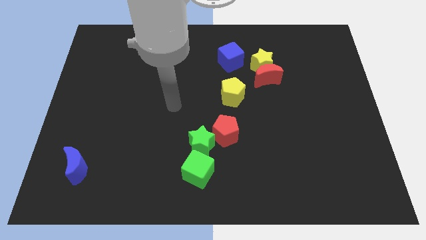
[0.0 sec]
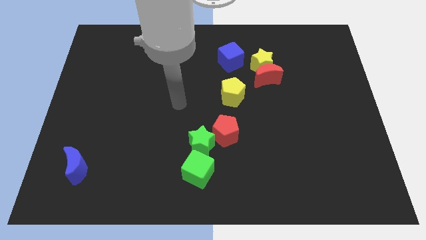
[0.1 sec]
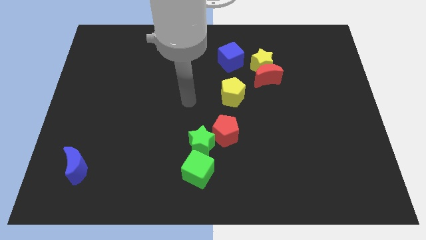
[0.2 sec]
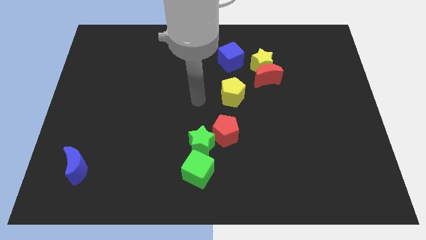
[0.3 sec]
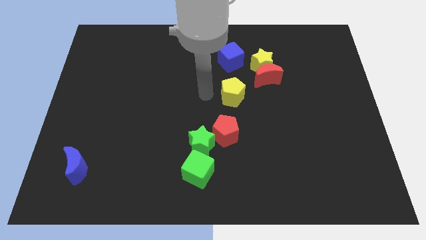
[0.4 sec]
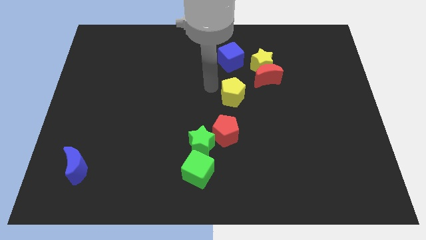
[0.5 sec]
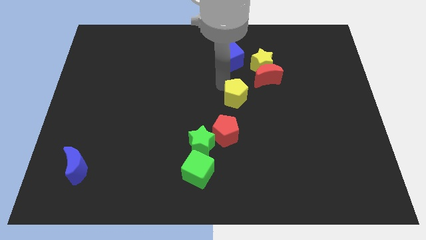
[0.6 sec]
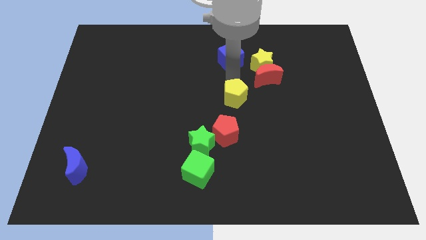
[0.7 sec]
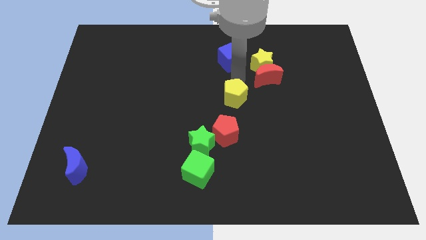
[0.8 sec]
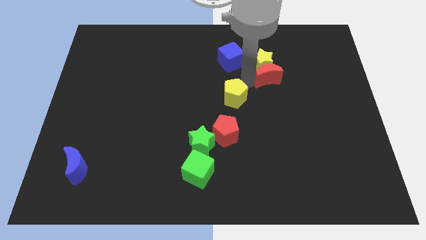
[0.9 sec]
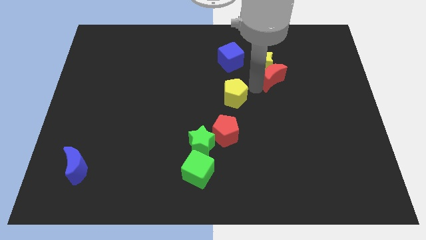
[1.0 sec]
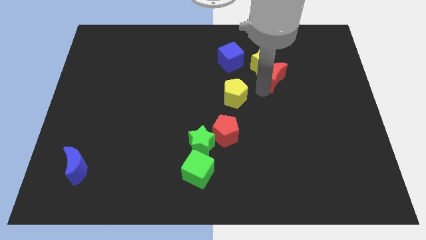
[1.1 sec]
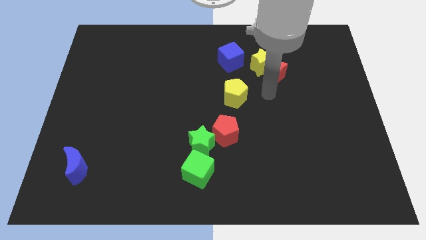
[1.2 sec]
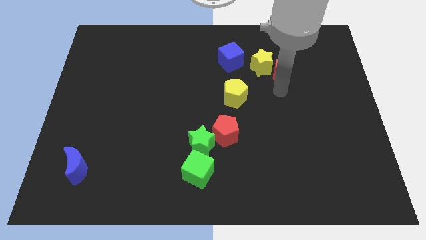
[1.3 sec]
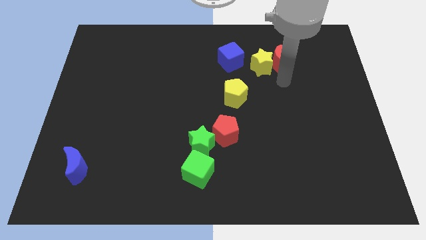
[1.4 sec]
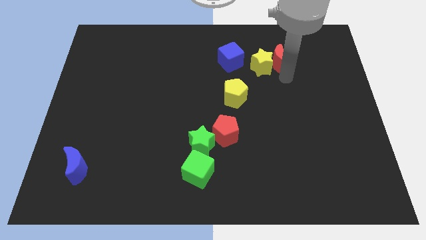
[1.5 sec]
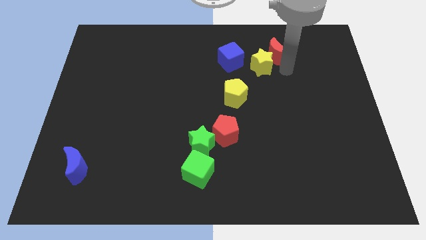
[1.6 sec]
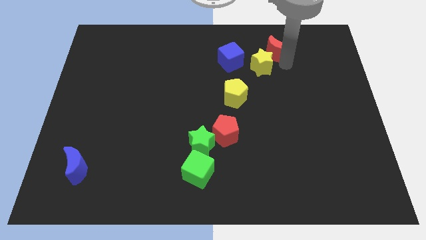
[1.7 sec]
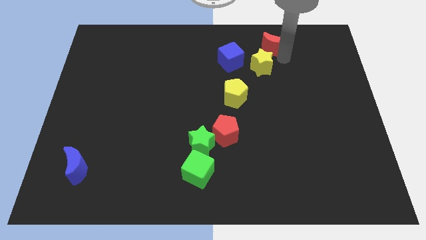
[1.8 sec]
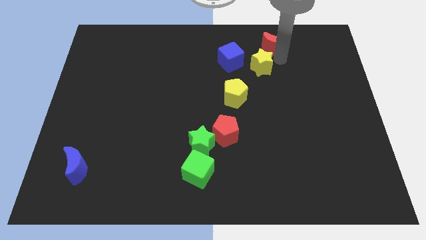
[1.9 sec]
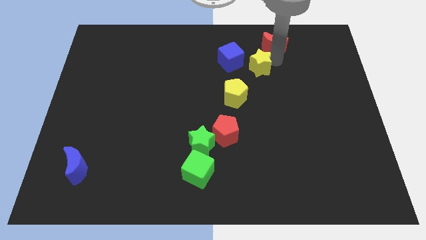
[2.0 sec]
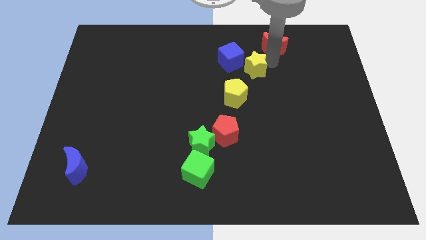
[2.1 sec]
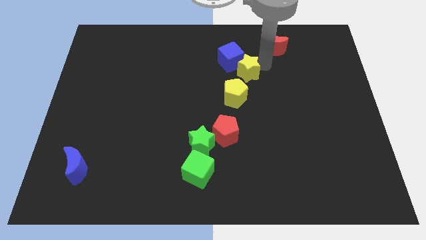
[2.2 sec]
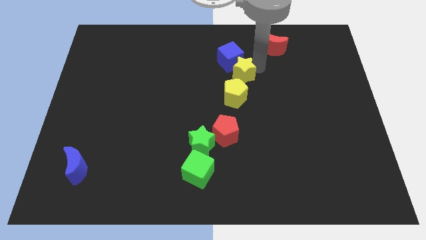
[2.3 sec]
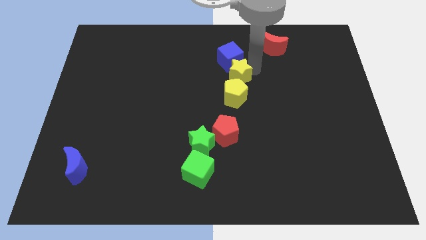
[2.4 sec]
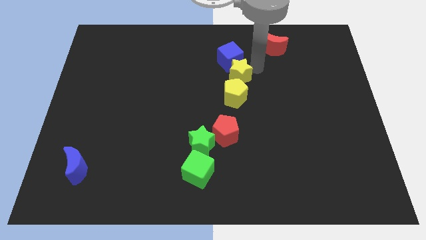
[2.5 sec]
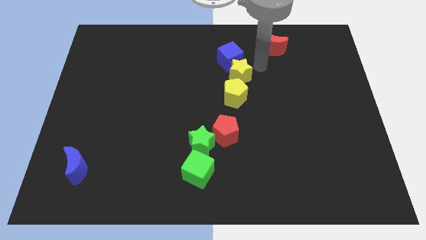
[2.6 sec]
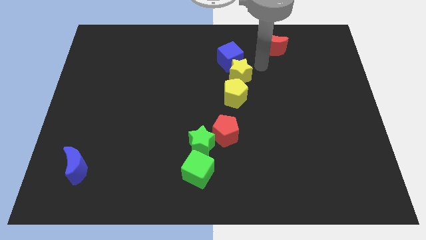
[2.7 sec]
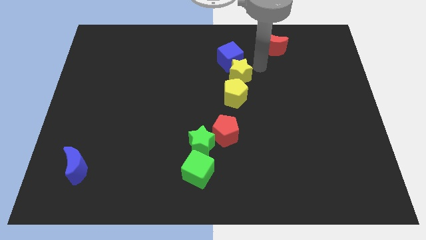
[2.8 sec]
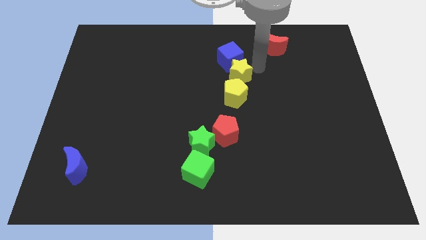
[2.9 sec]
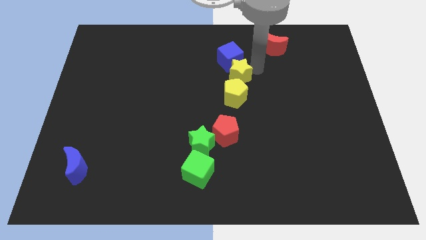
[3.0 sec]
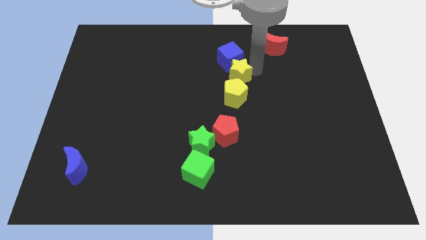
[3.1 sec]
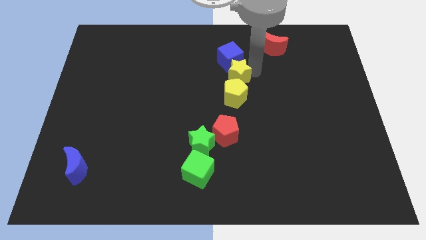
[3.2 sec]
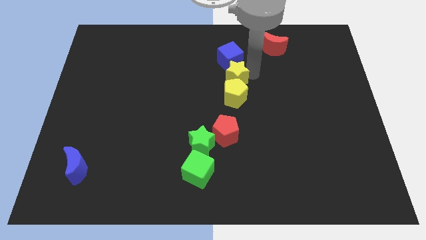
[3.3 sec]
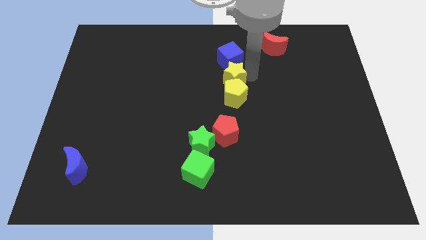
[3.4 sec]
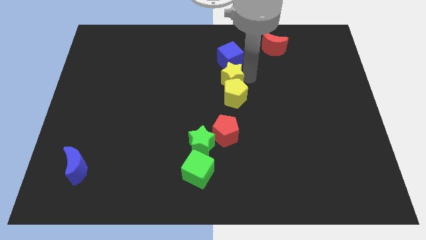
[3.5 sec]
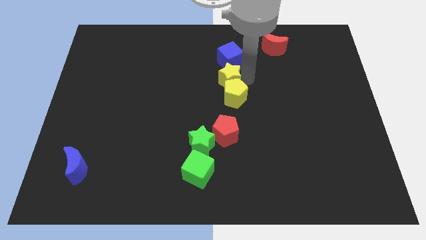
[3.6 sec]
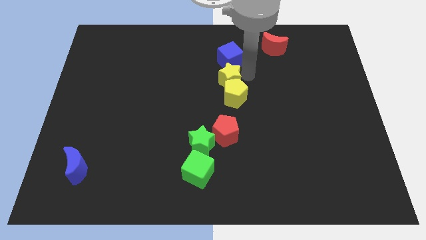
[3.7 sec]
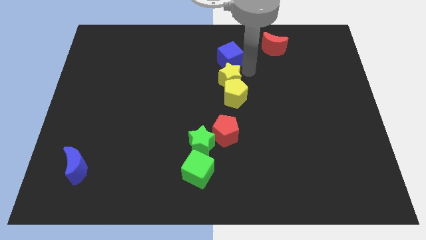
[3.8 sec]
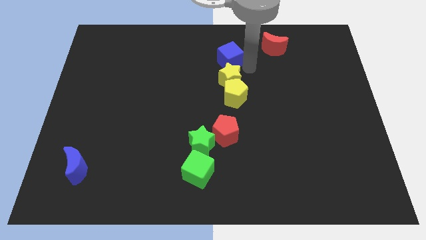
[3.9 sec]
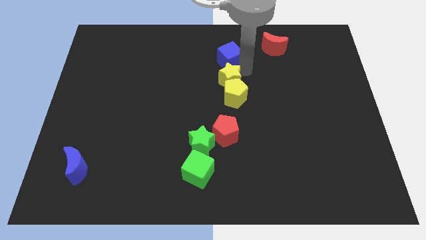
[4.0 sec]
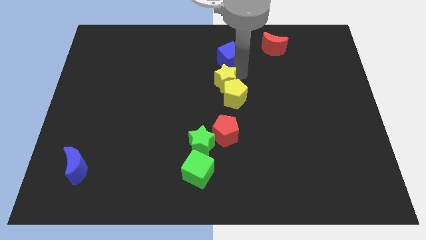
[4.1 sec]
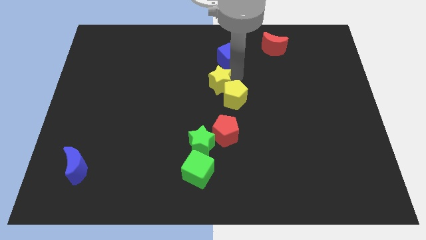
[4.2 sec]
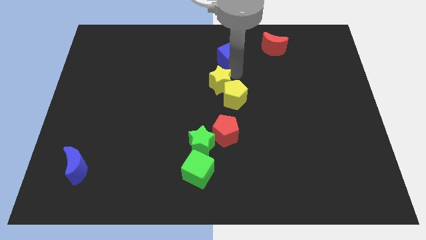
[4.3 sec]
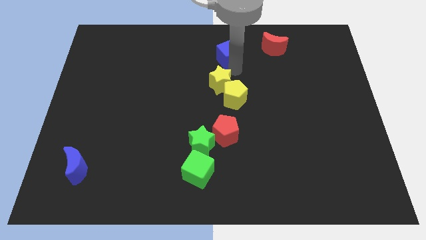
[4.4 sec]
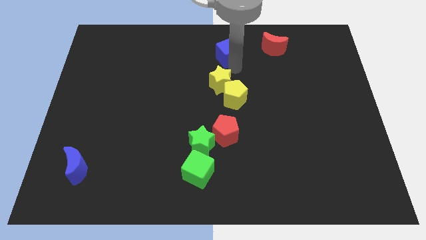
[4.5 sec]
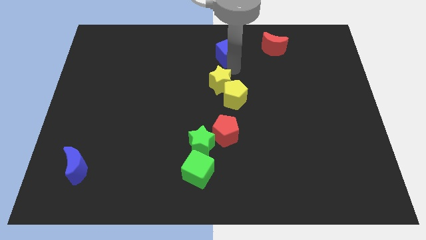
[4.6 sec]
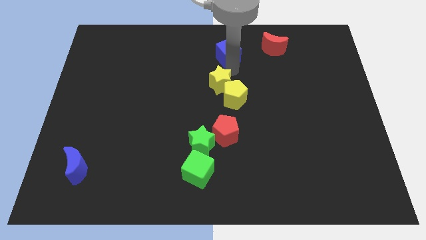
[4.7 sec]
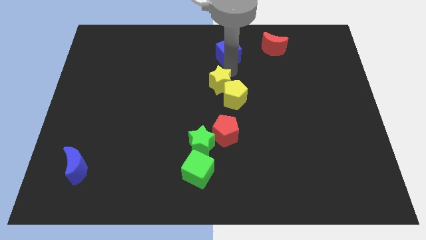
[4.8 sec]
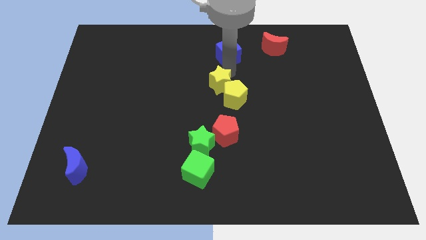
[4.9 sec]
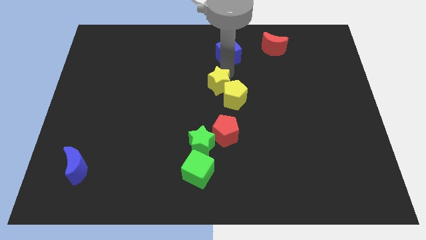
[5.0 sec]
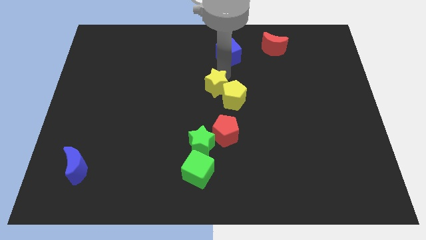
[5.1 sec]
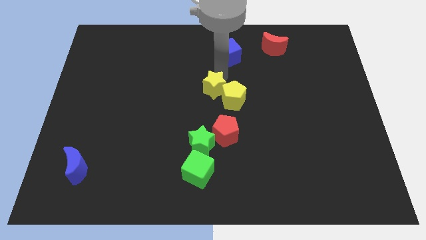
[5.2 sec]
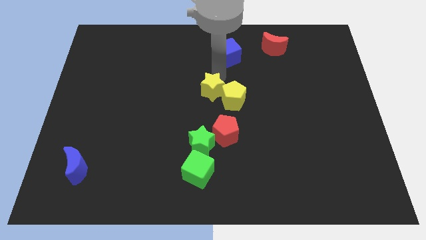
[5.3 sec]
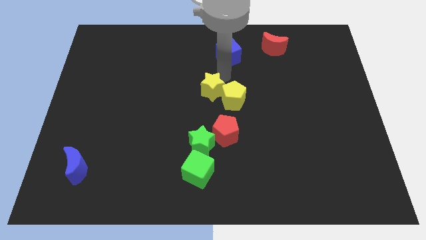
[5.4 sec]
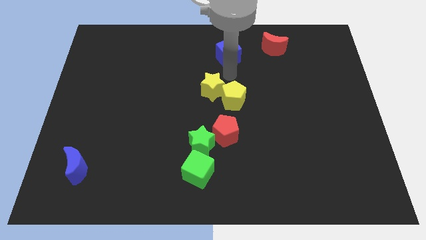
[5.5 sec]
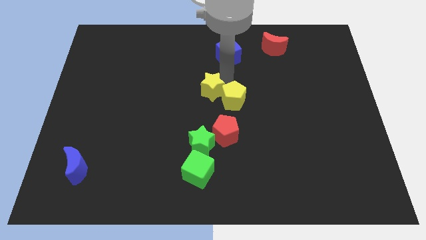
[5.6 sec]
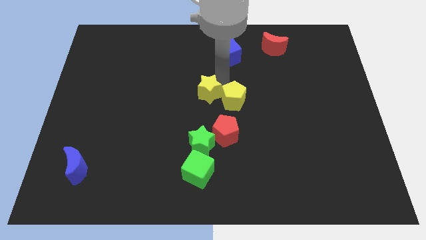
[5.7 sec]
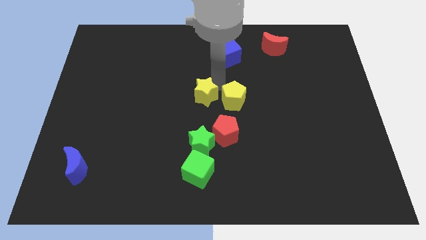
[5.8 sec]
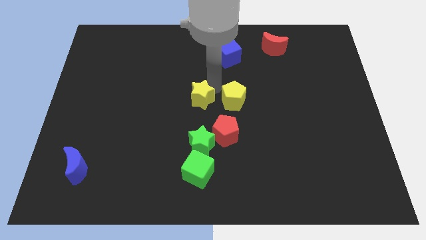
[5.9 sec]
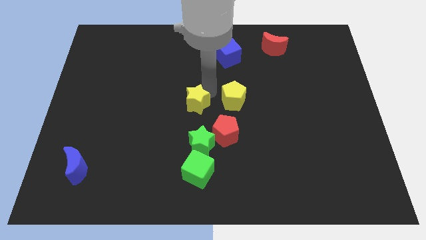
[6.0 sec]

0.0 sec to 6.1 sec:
slide the yellow star diagonally down and to the left

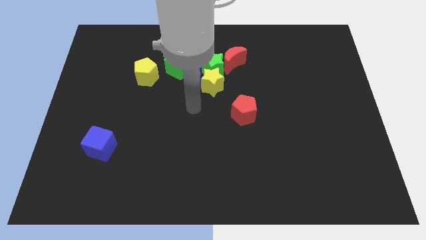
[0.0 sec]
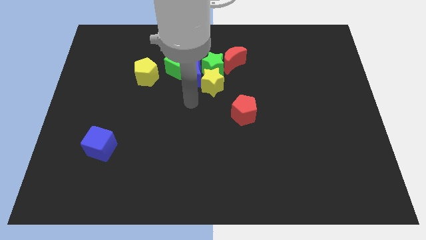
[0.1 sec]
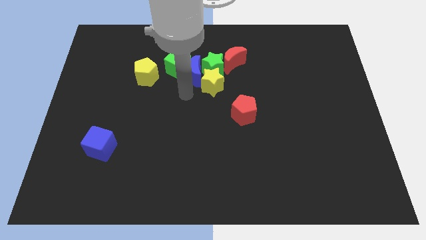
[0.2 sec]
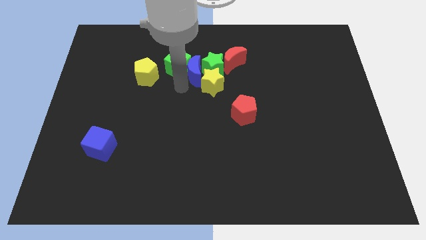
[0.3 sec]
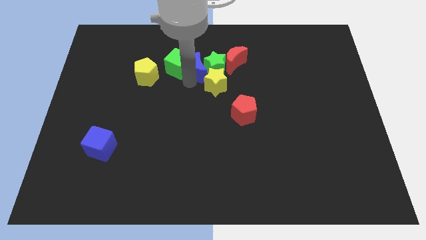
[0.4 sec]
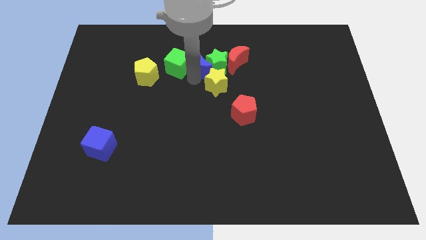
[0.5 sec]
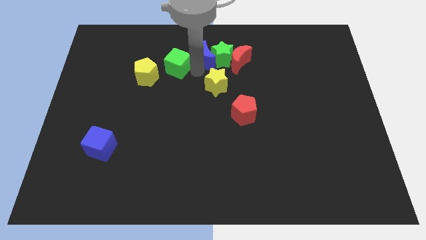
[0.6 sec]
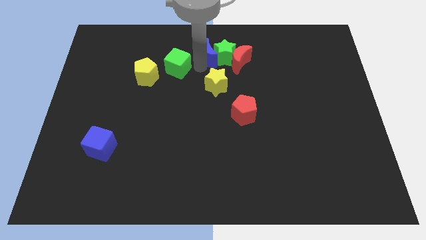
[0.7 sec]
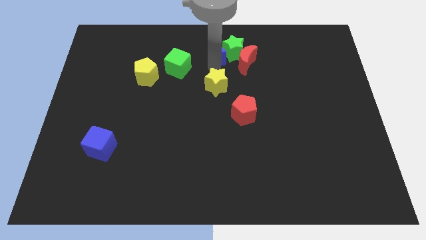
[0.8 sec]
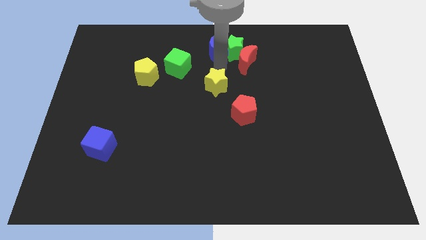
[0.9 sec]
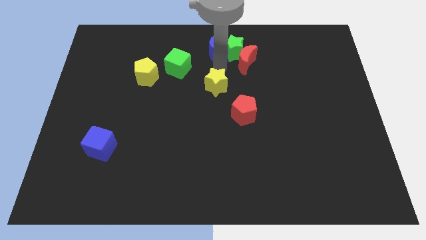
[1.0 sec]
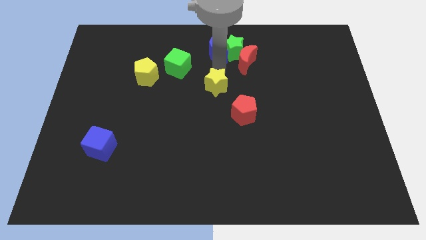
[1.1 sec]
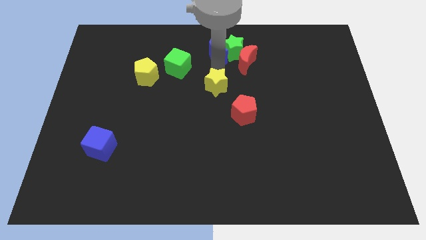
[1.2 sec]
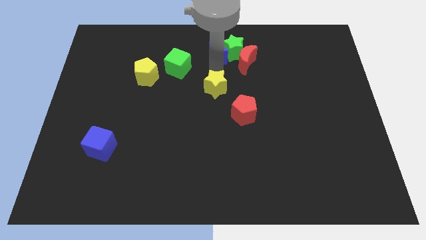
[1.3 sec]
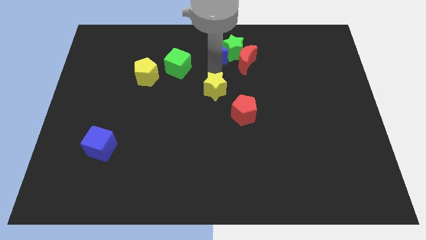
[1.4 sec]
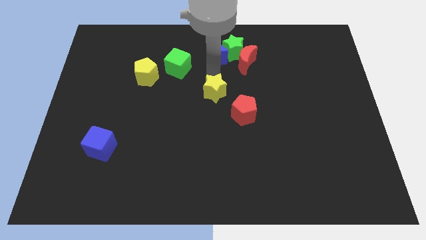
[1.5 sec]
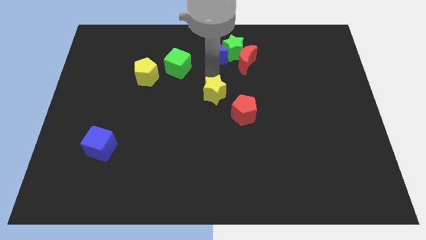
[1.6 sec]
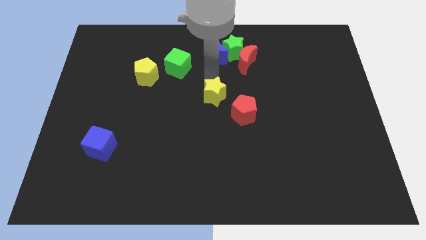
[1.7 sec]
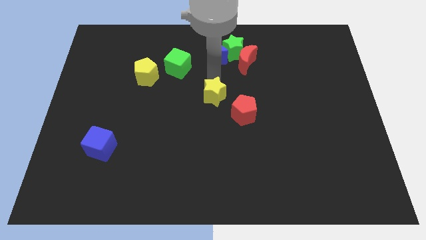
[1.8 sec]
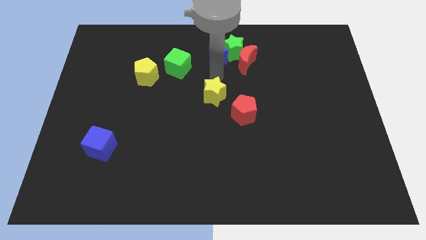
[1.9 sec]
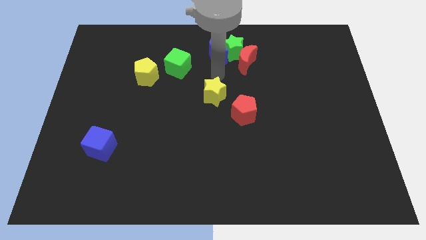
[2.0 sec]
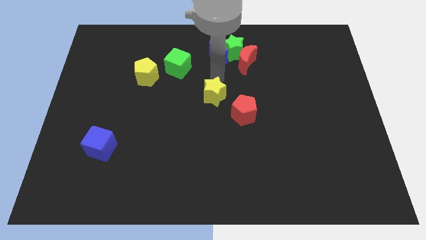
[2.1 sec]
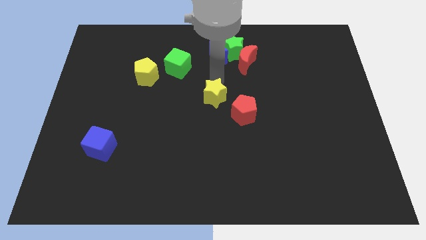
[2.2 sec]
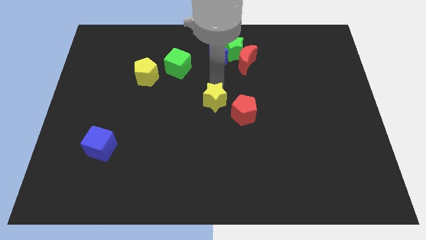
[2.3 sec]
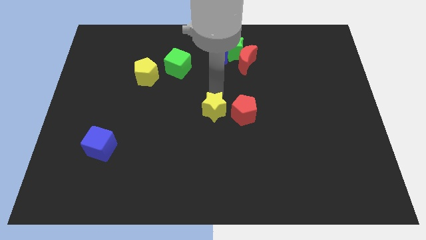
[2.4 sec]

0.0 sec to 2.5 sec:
push the yellow star down a little bit
